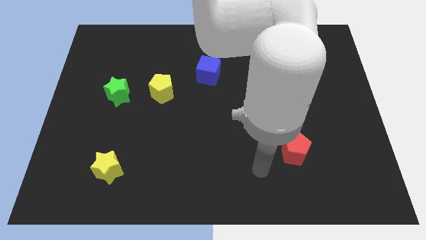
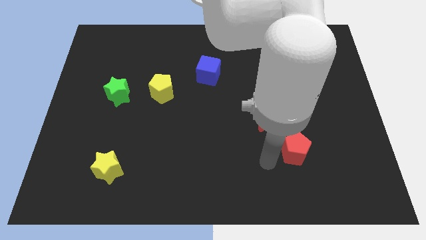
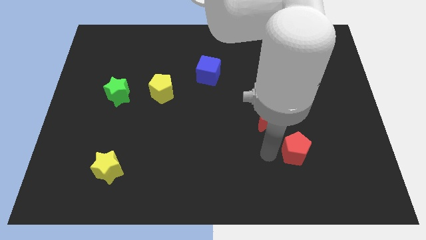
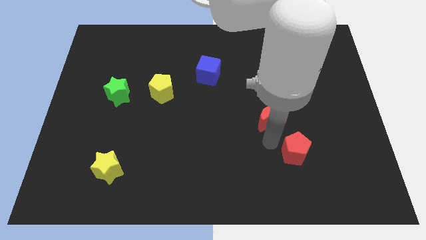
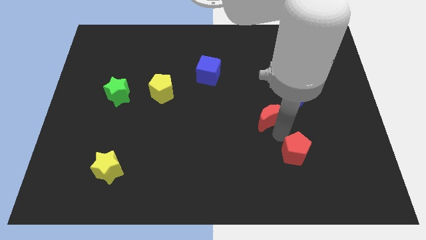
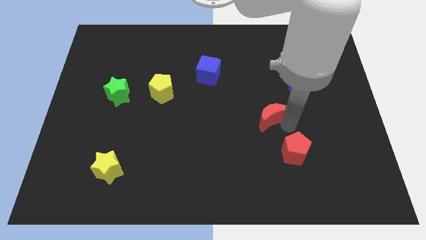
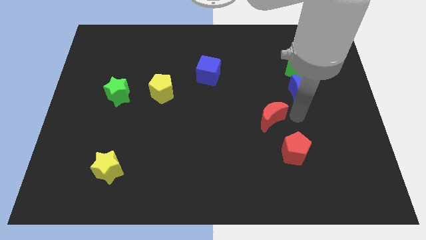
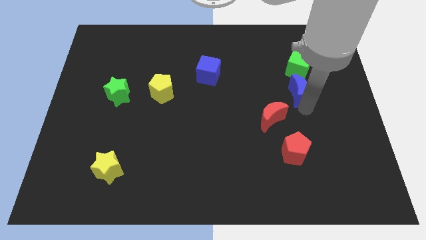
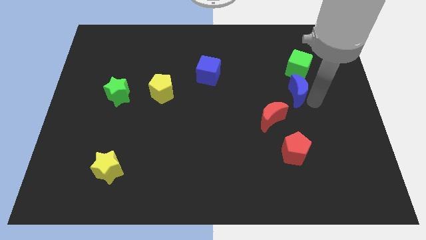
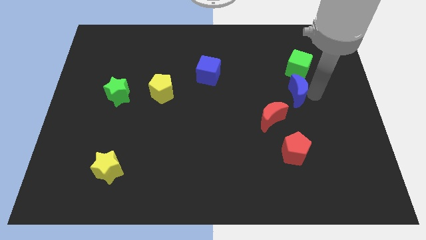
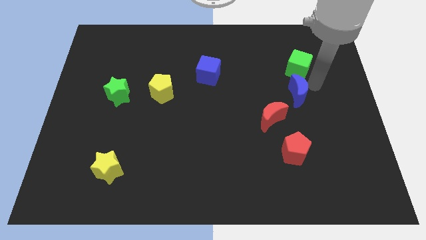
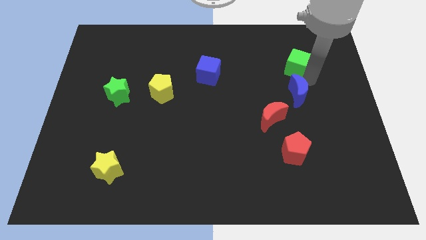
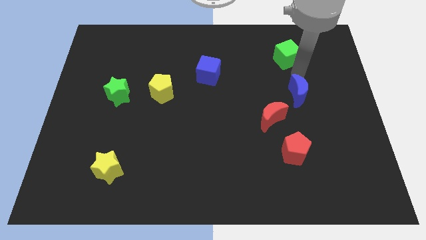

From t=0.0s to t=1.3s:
move the blue moon away from the green cube

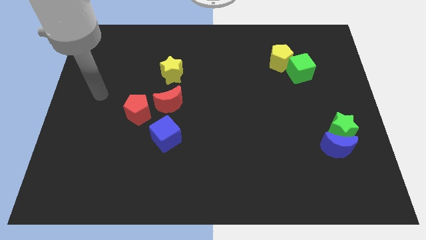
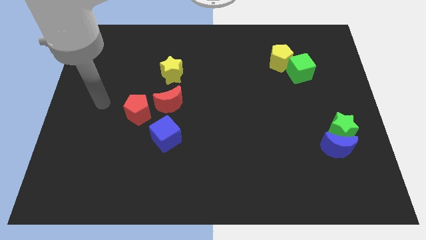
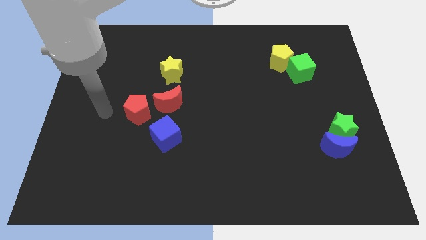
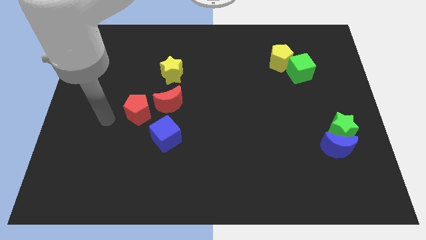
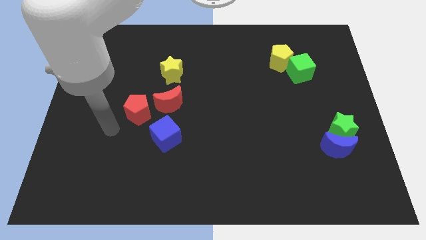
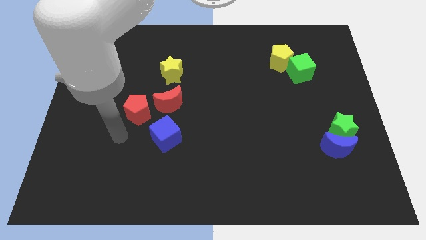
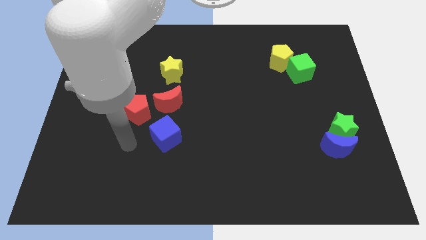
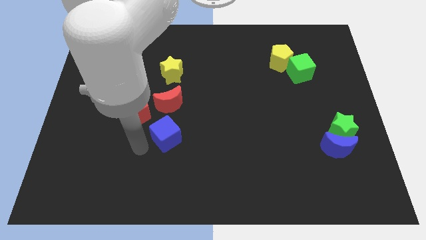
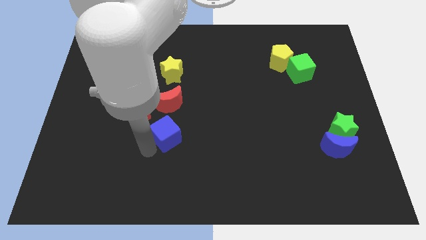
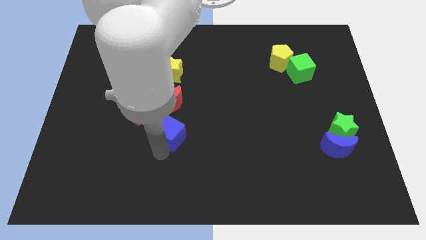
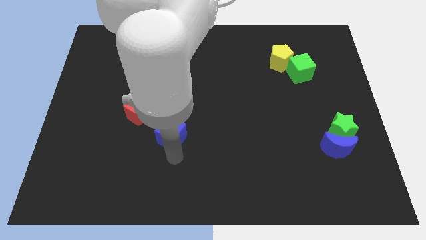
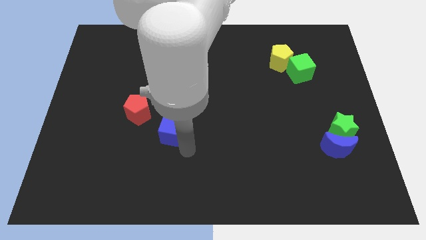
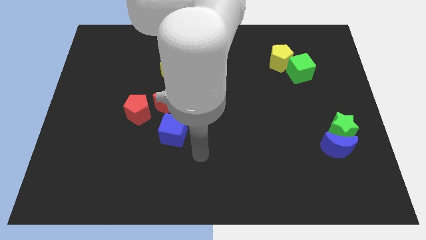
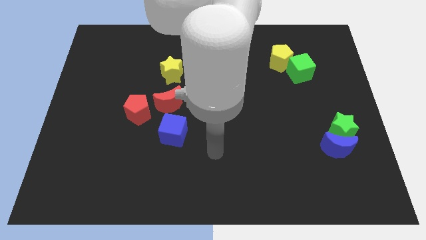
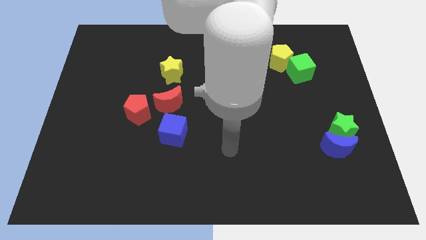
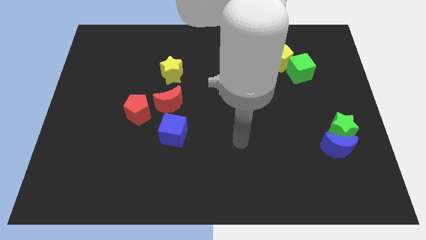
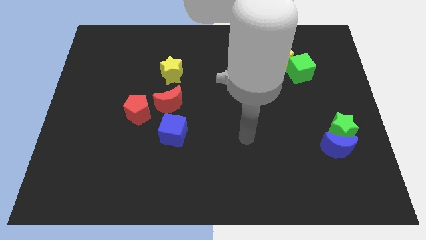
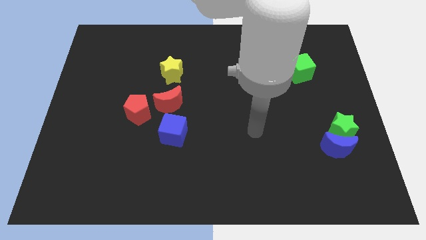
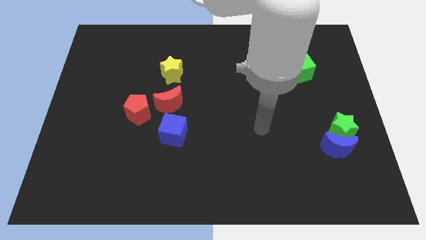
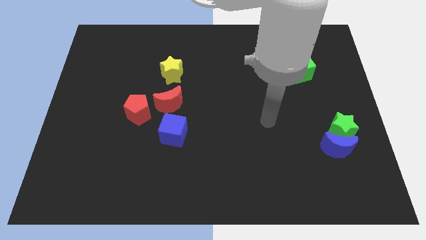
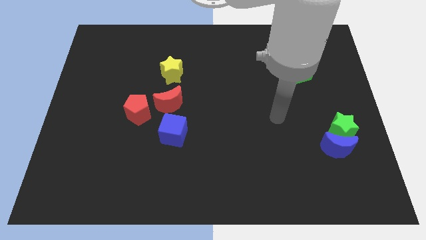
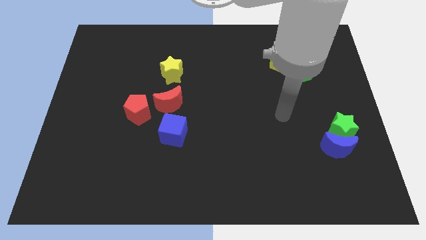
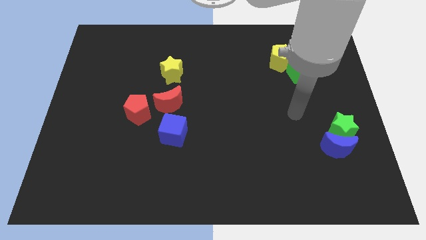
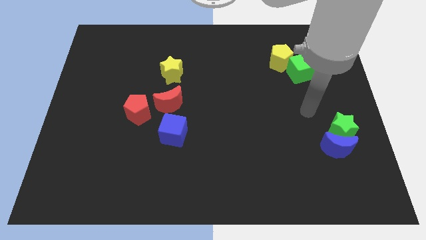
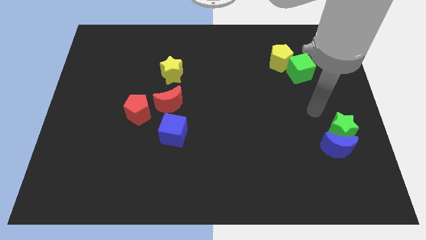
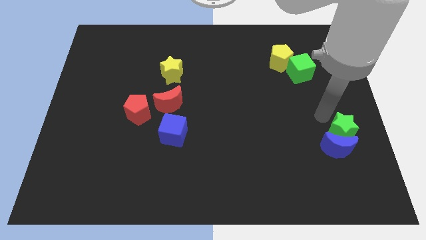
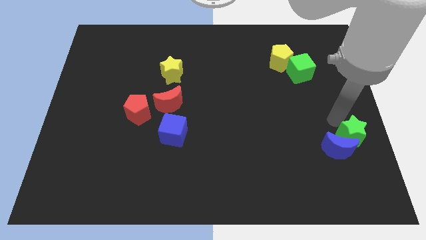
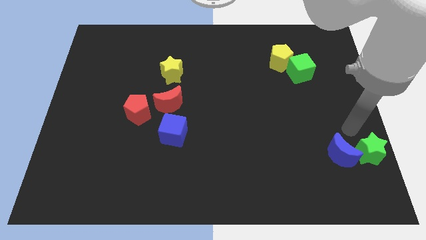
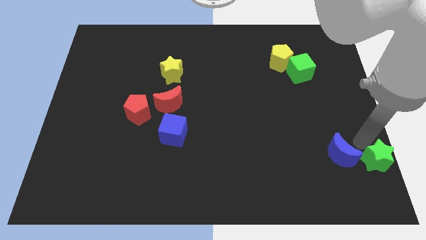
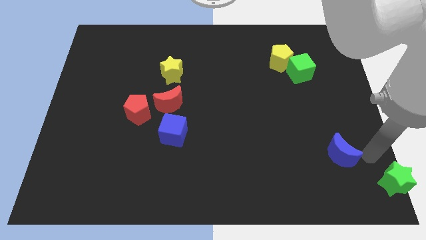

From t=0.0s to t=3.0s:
move the blue moon away from the green star

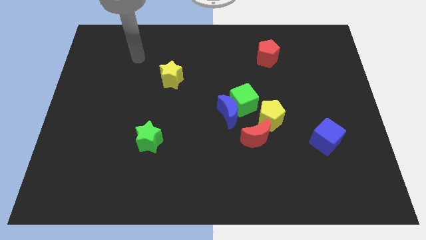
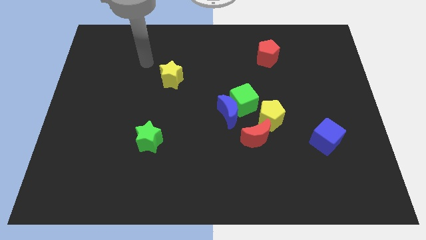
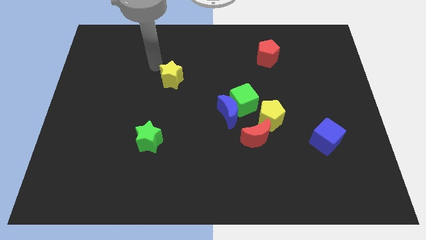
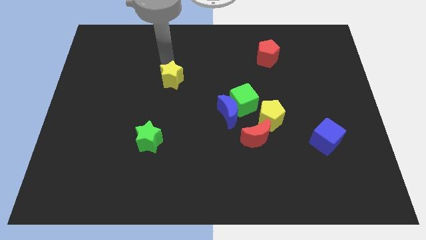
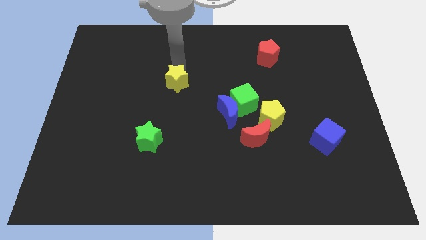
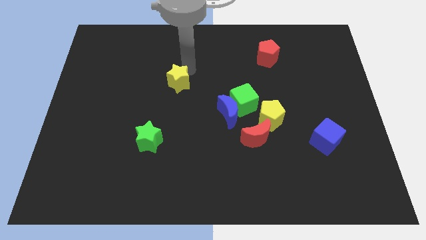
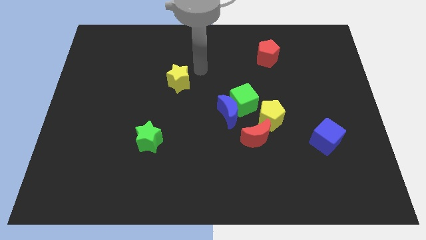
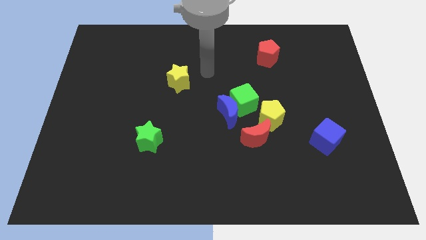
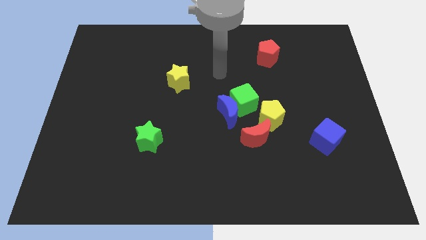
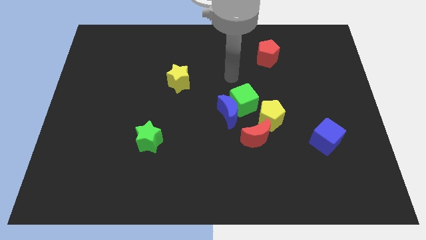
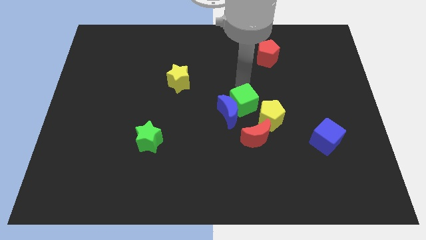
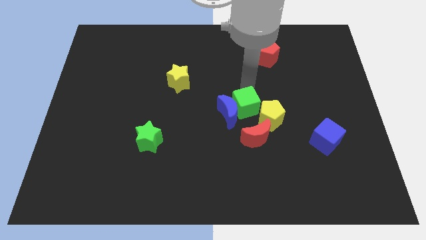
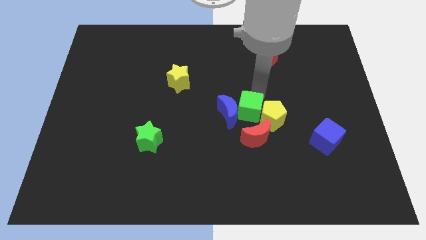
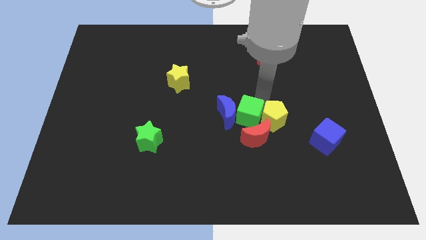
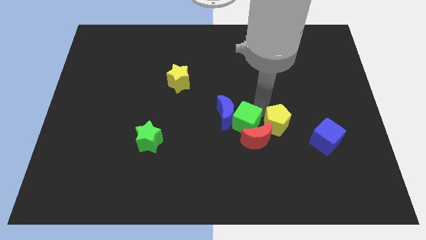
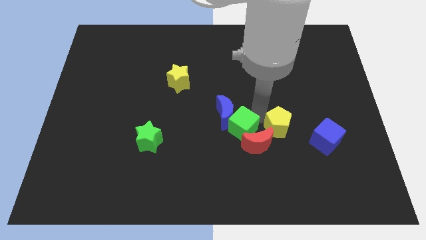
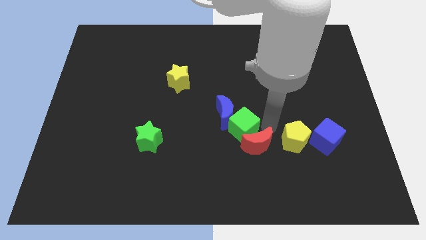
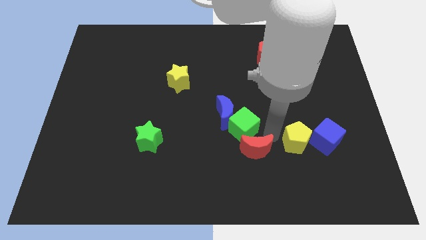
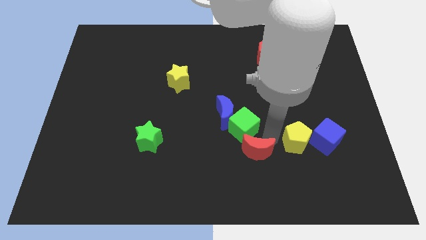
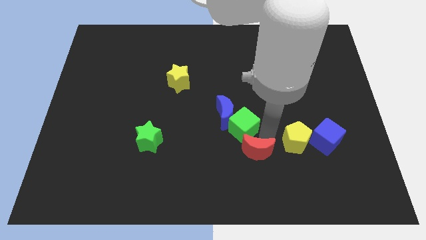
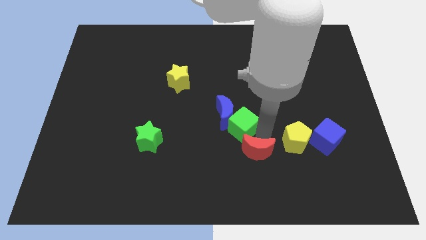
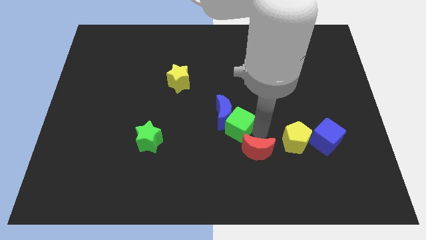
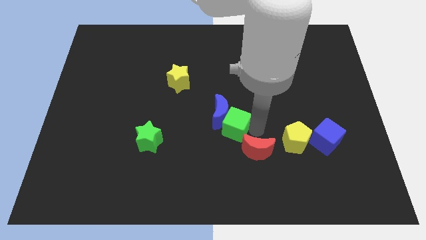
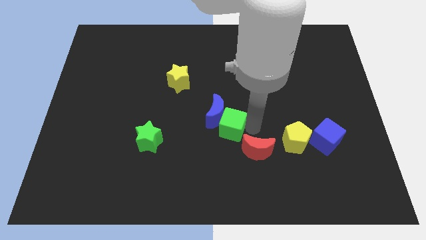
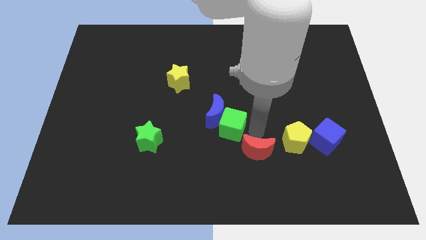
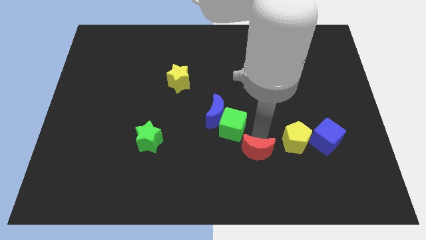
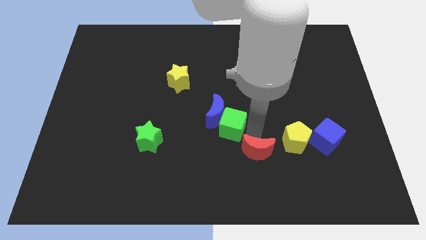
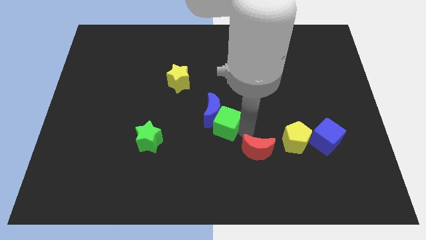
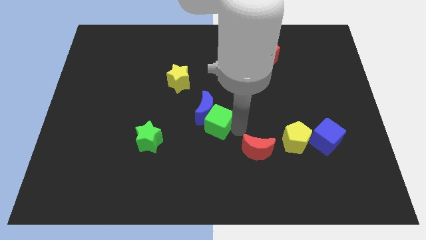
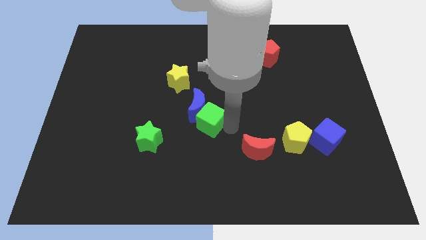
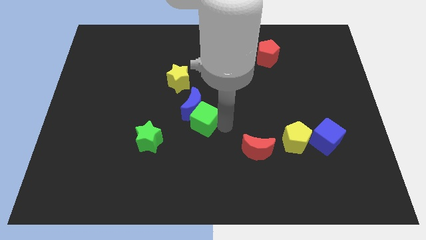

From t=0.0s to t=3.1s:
separate the green cube from the group

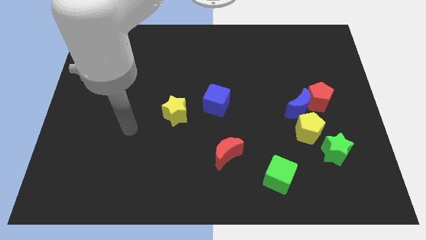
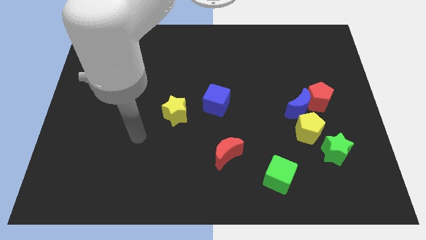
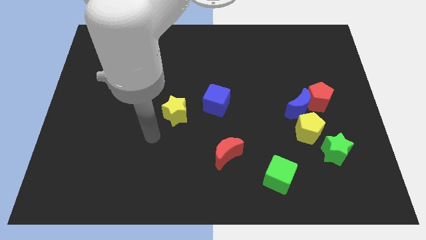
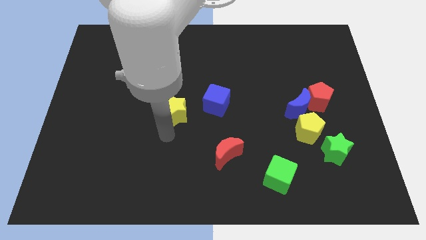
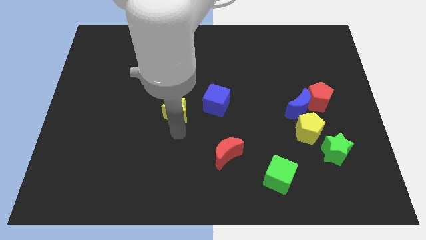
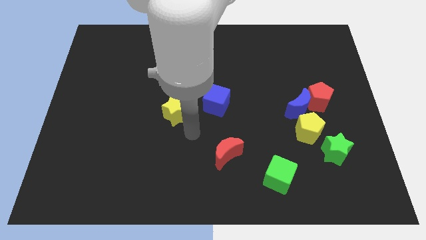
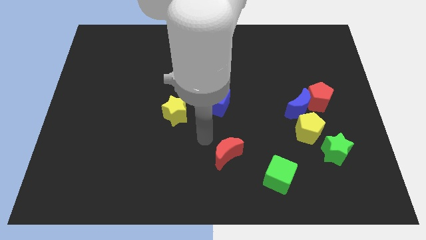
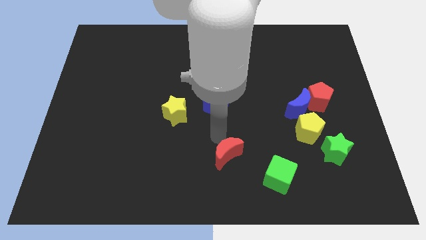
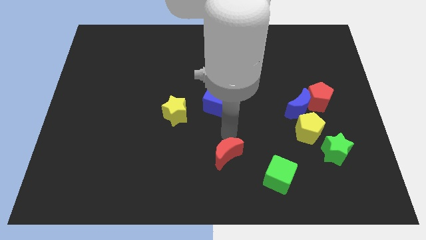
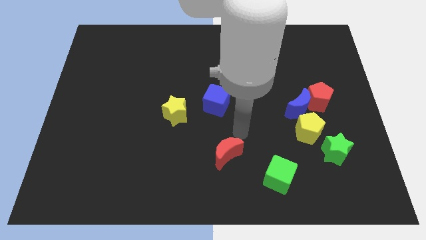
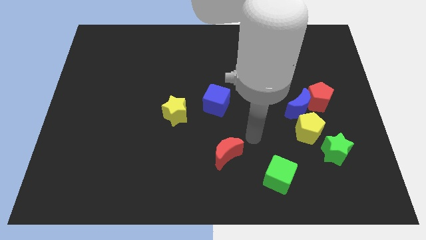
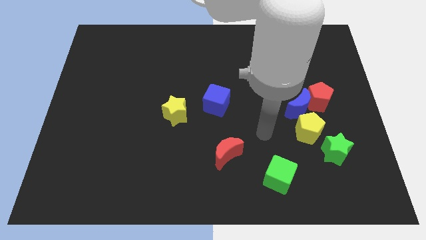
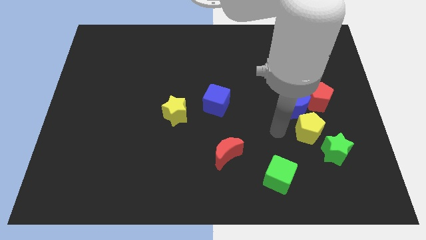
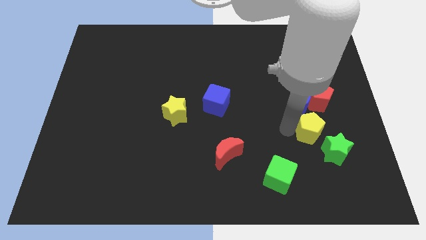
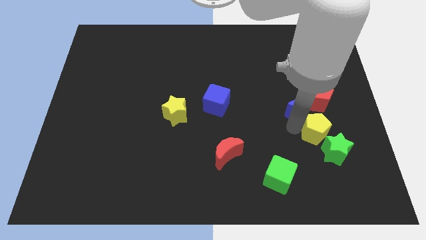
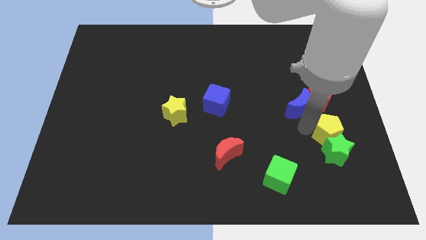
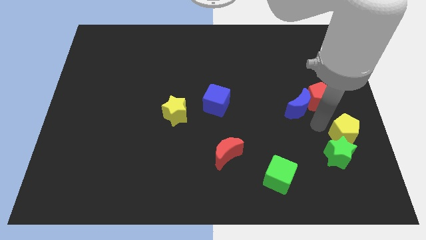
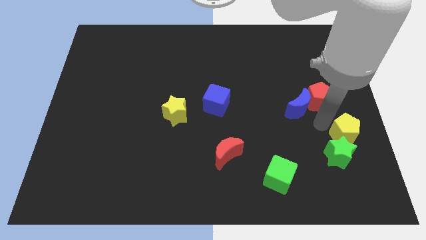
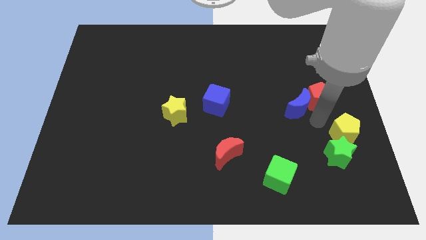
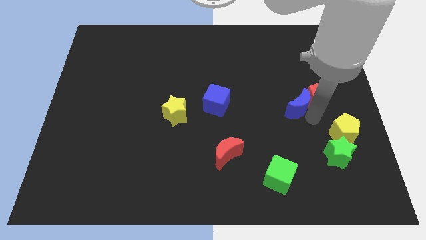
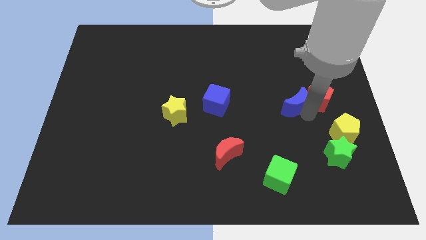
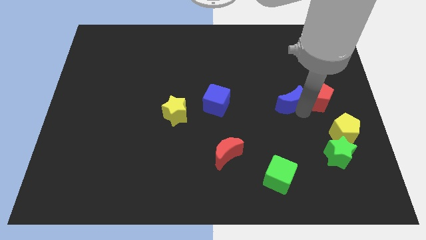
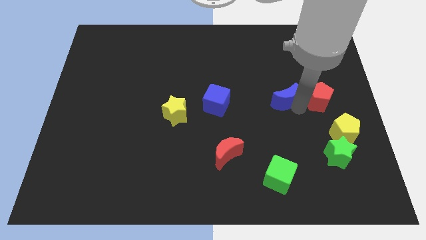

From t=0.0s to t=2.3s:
move the blue moon away from the red pentagon and yellow pentagon
